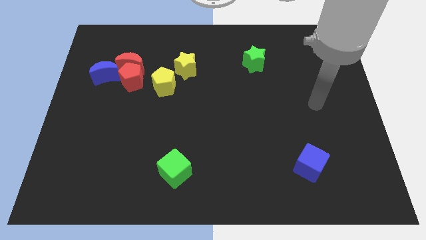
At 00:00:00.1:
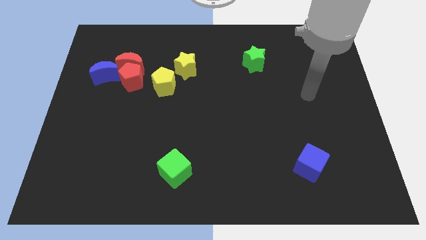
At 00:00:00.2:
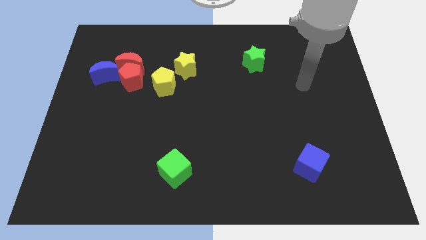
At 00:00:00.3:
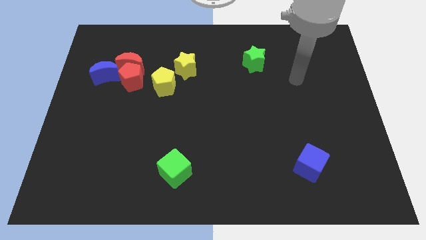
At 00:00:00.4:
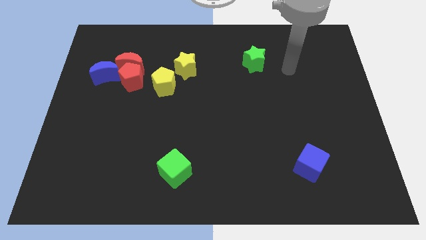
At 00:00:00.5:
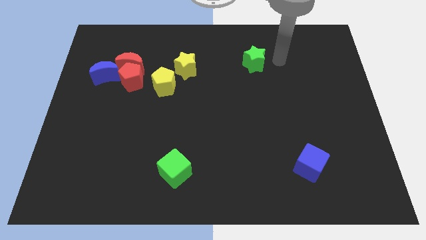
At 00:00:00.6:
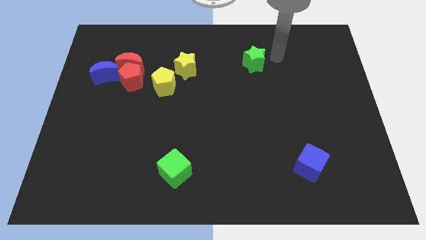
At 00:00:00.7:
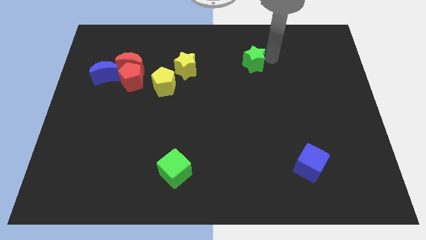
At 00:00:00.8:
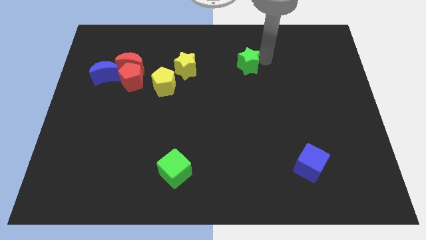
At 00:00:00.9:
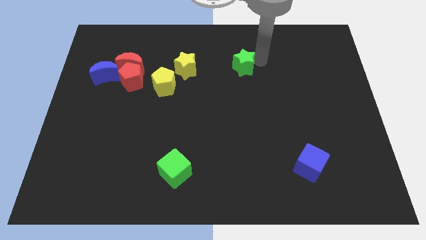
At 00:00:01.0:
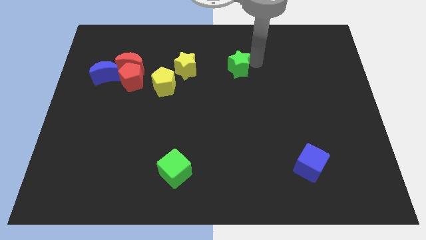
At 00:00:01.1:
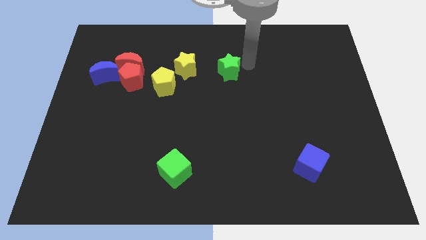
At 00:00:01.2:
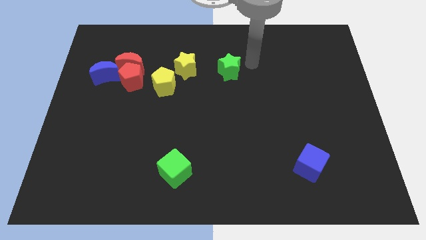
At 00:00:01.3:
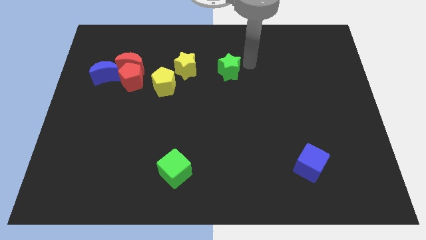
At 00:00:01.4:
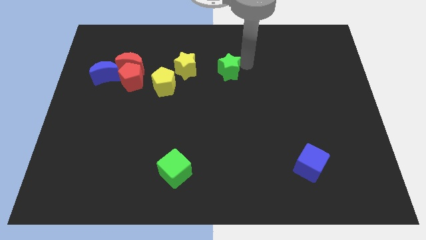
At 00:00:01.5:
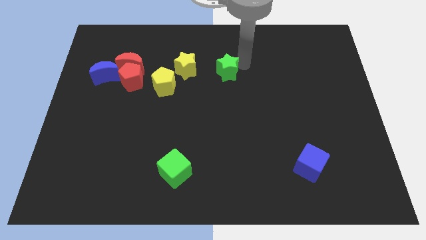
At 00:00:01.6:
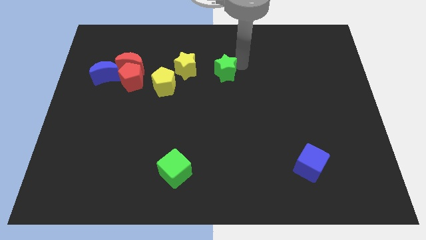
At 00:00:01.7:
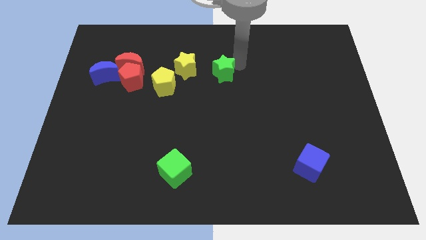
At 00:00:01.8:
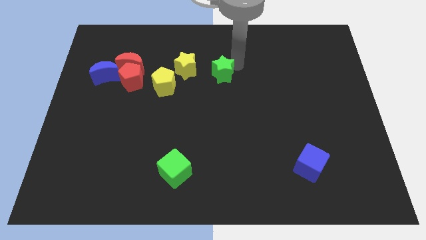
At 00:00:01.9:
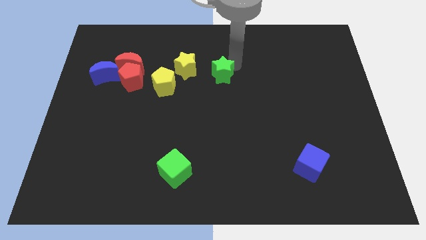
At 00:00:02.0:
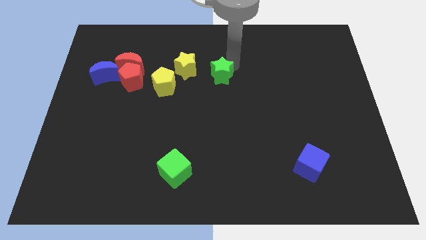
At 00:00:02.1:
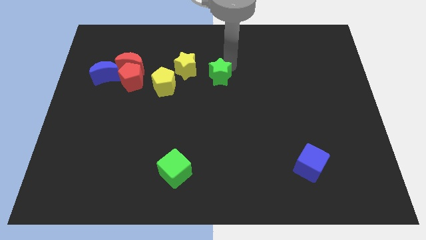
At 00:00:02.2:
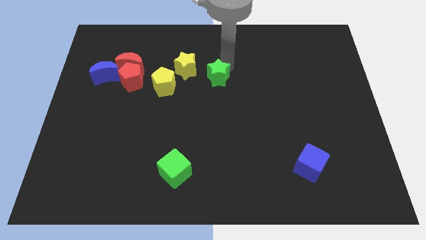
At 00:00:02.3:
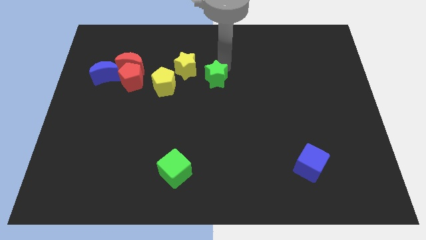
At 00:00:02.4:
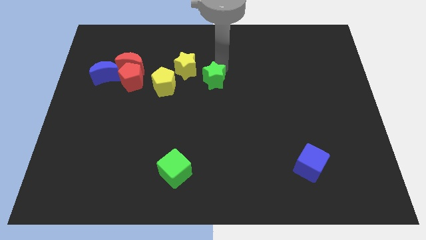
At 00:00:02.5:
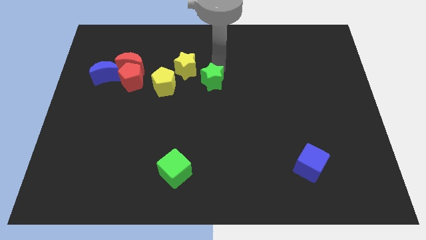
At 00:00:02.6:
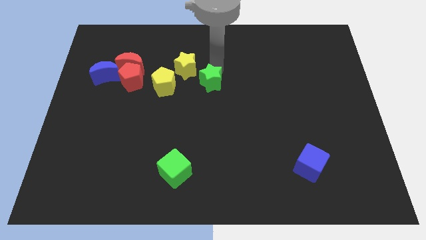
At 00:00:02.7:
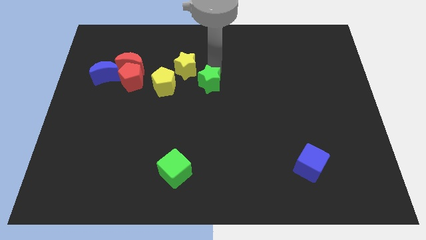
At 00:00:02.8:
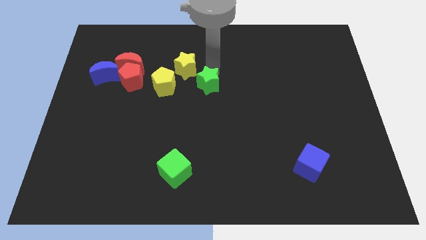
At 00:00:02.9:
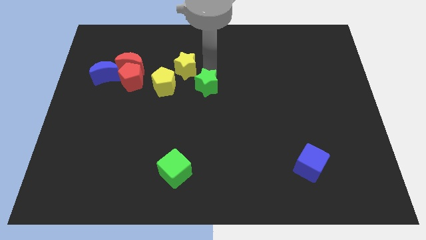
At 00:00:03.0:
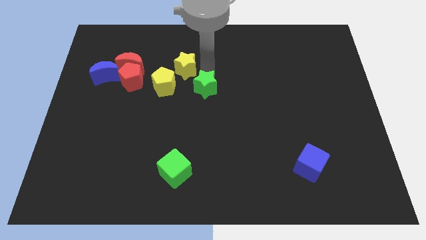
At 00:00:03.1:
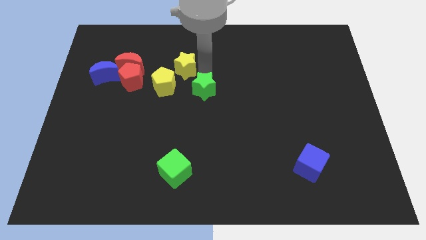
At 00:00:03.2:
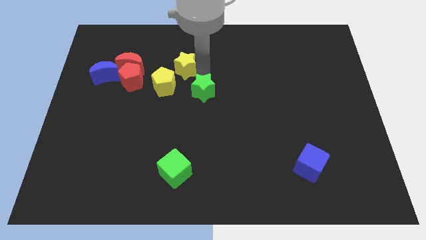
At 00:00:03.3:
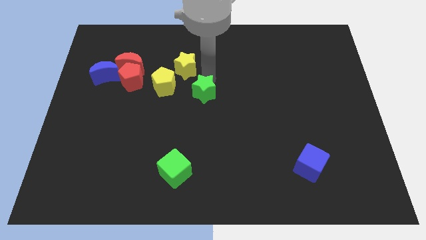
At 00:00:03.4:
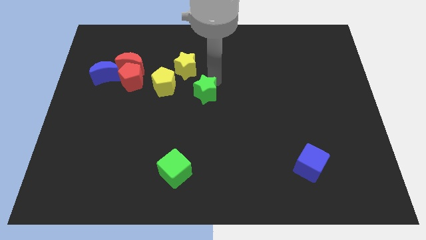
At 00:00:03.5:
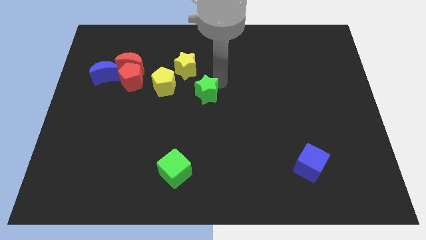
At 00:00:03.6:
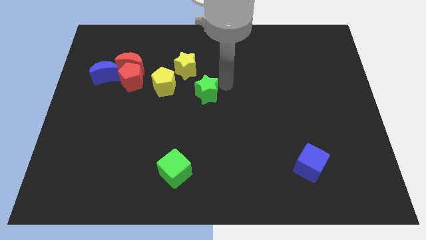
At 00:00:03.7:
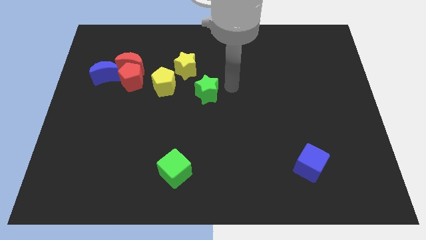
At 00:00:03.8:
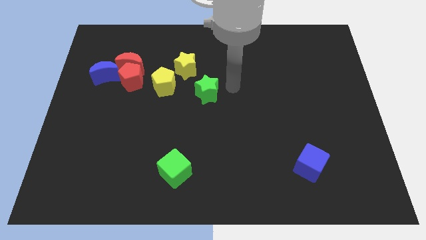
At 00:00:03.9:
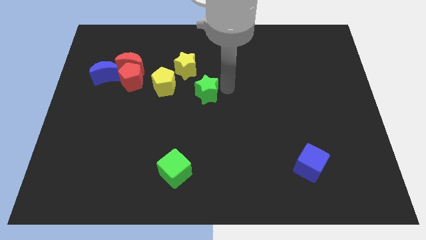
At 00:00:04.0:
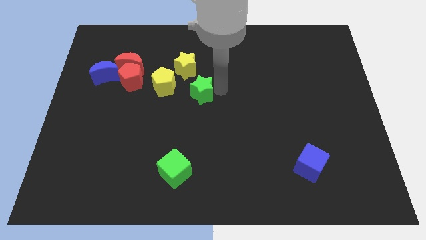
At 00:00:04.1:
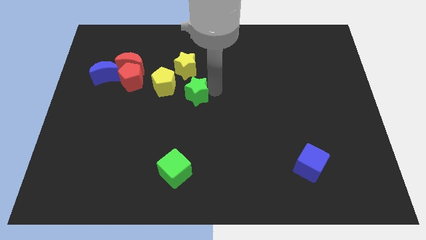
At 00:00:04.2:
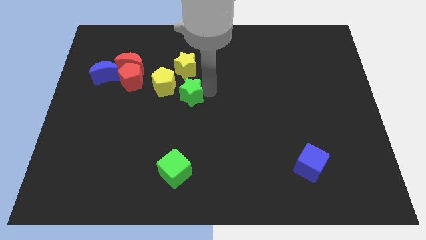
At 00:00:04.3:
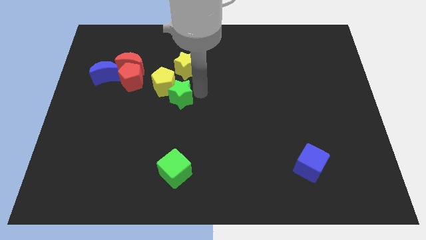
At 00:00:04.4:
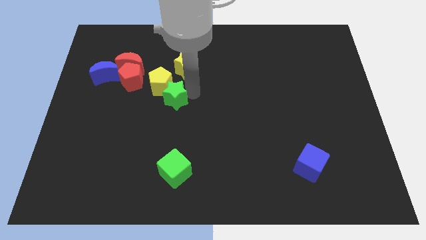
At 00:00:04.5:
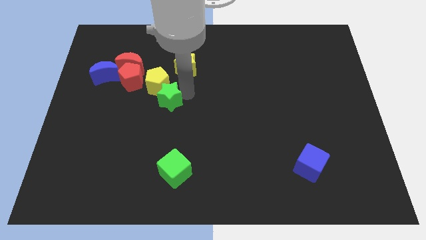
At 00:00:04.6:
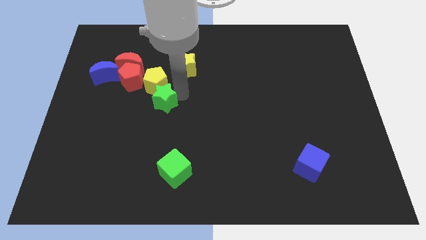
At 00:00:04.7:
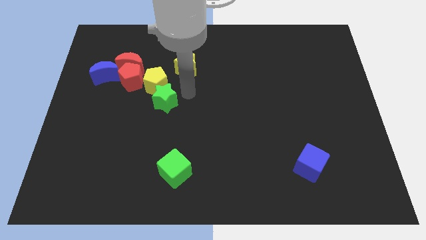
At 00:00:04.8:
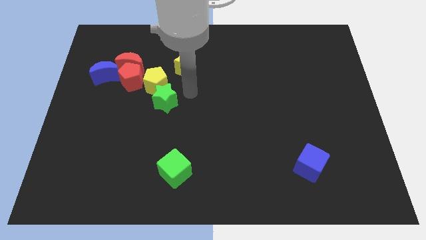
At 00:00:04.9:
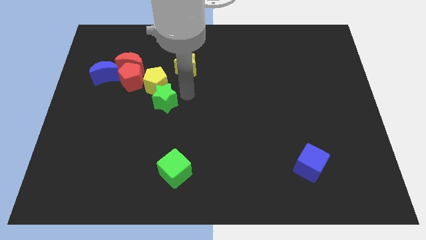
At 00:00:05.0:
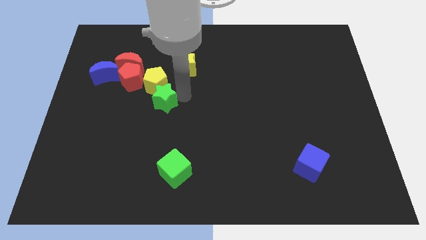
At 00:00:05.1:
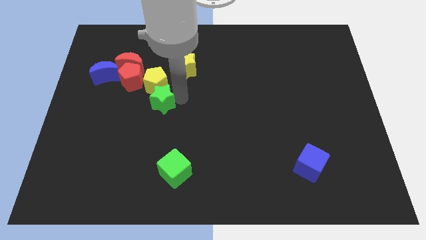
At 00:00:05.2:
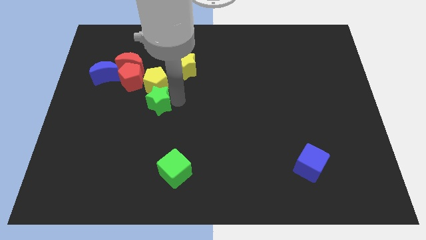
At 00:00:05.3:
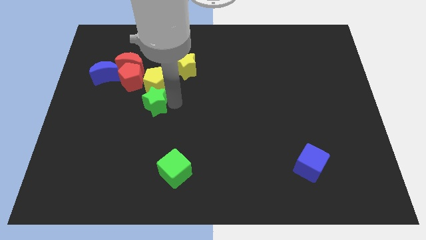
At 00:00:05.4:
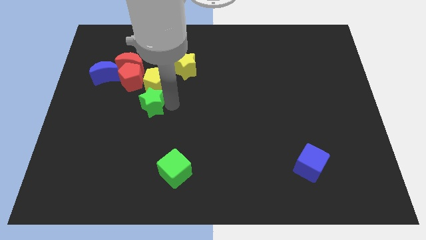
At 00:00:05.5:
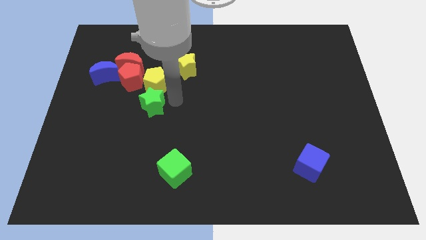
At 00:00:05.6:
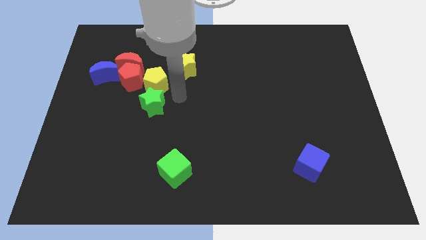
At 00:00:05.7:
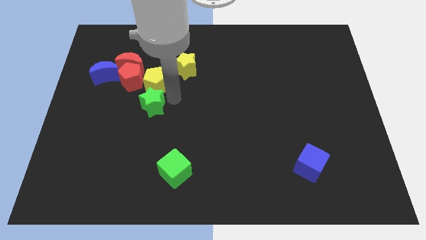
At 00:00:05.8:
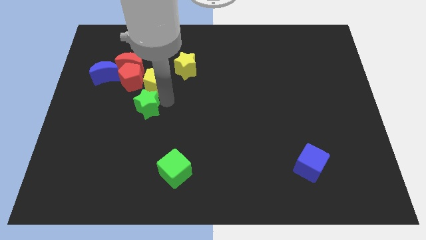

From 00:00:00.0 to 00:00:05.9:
slide the green star to the bottom of the red pentagon
